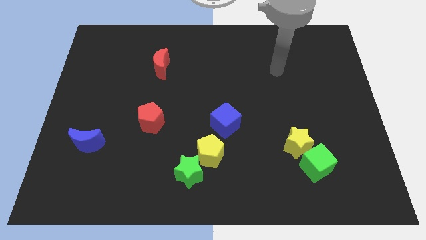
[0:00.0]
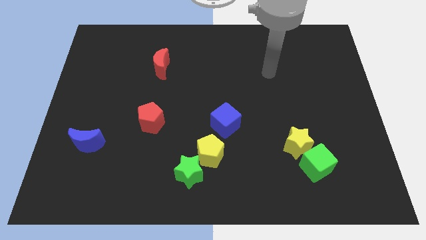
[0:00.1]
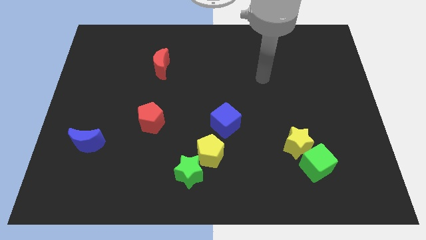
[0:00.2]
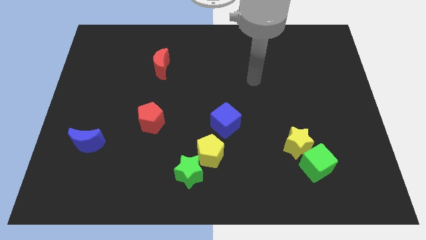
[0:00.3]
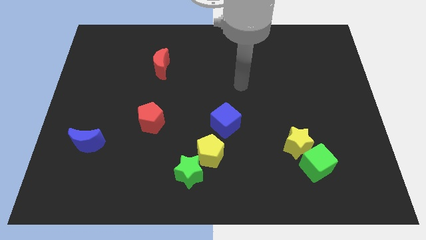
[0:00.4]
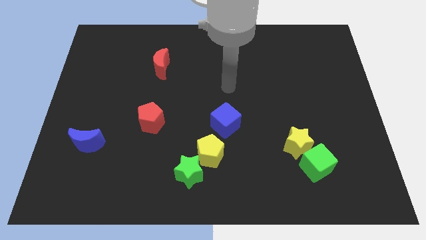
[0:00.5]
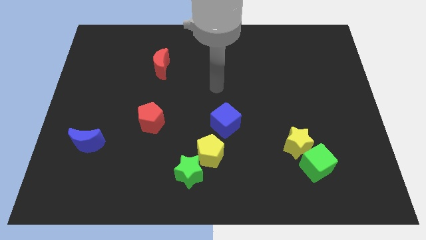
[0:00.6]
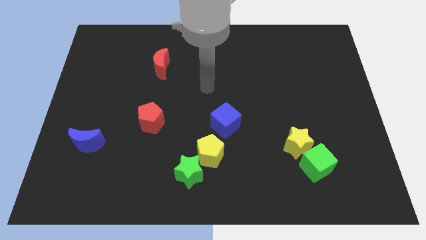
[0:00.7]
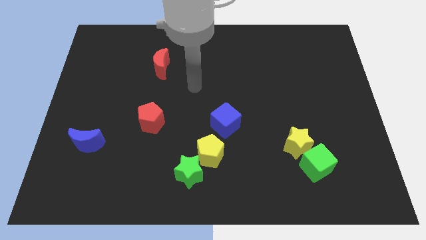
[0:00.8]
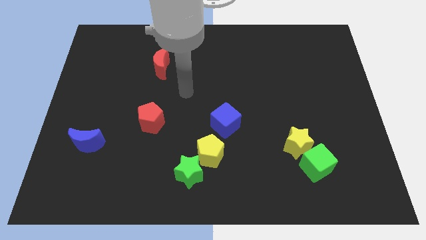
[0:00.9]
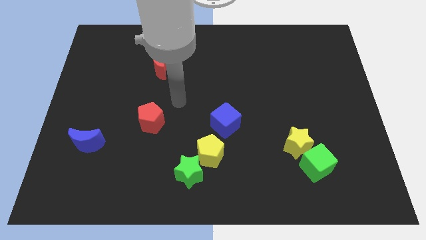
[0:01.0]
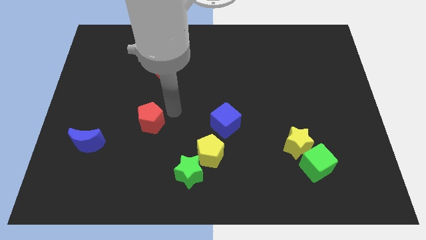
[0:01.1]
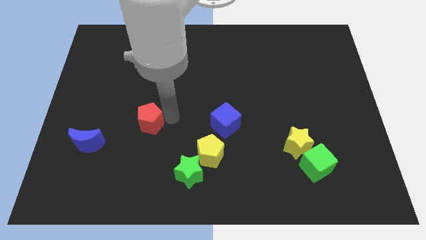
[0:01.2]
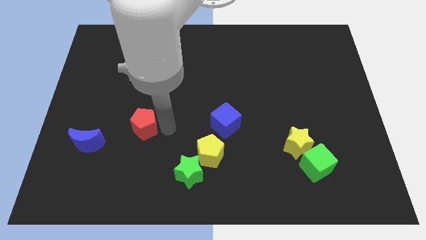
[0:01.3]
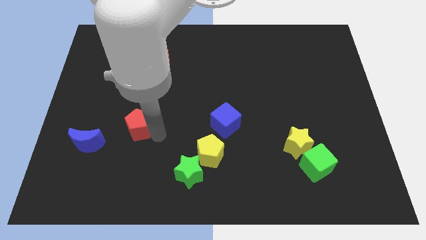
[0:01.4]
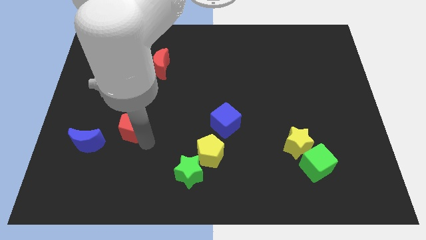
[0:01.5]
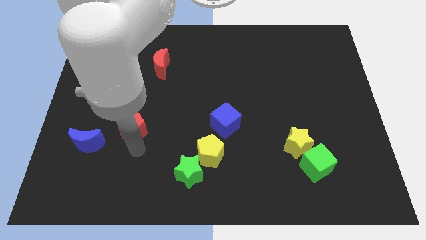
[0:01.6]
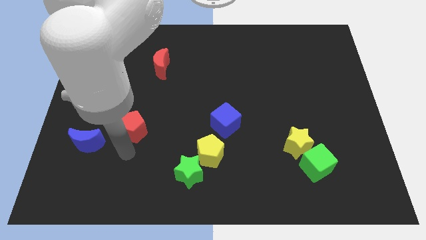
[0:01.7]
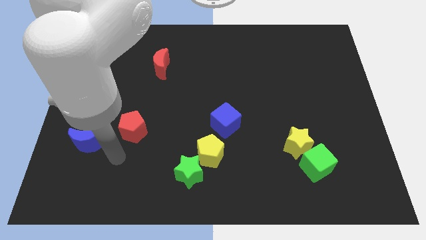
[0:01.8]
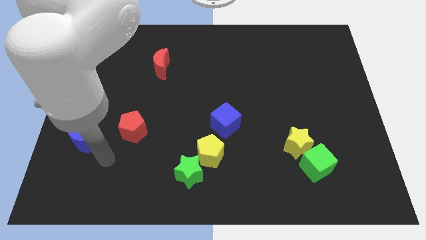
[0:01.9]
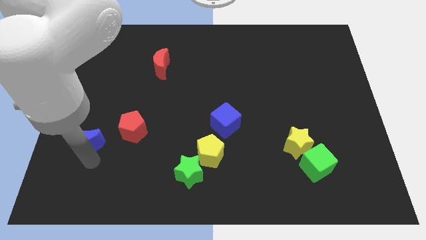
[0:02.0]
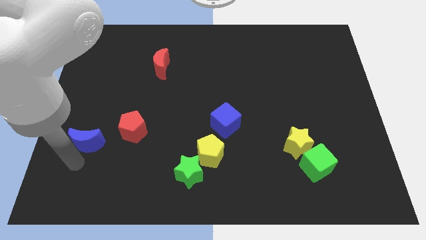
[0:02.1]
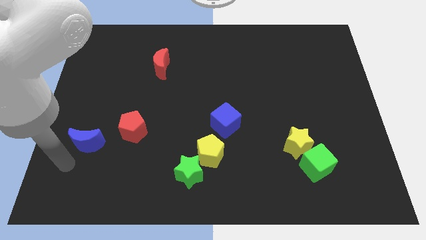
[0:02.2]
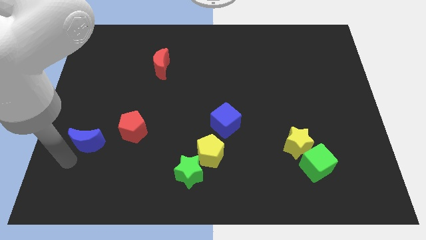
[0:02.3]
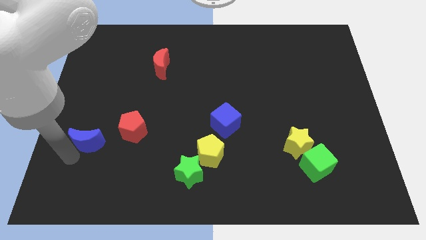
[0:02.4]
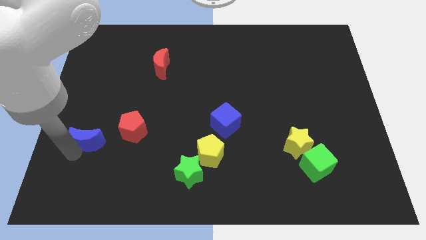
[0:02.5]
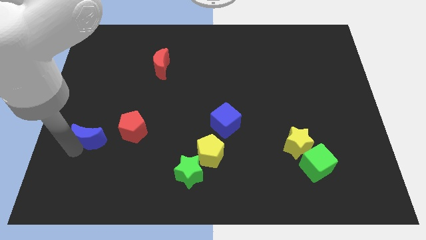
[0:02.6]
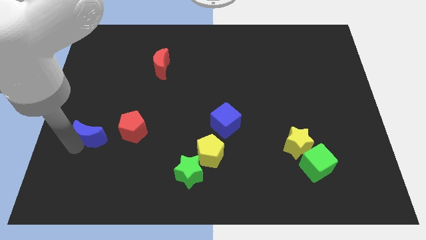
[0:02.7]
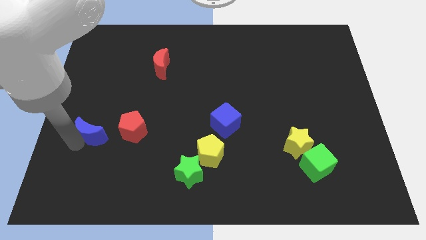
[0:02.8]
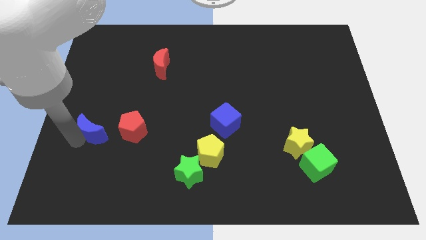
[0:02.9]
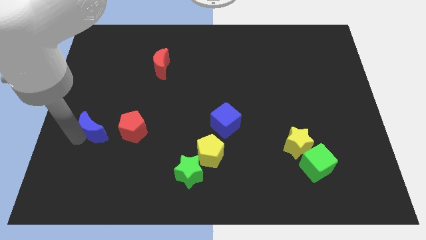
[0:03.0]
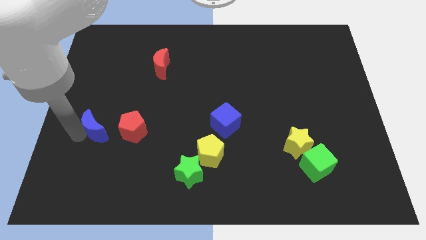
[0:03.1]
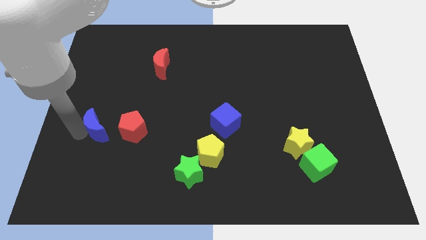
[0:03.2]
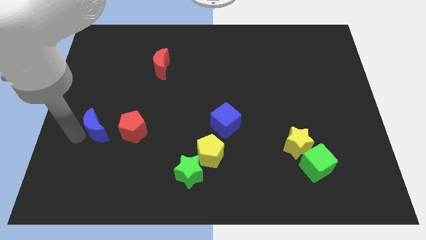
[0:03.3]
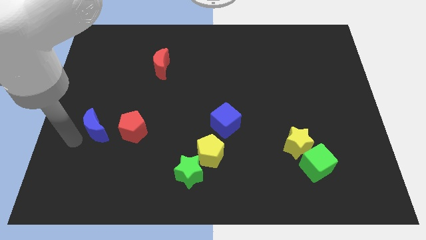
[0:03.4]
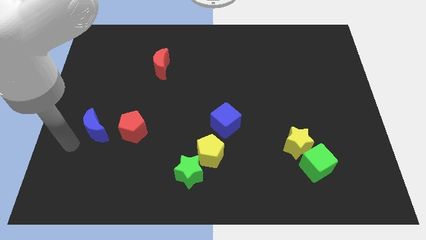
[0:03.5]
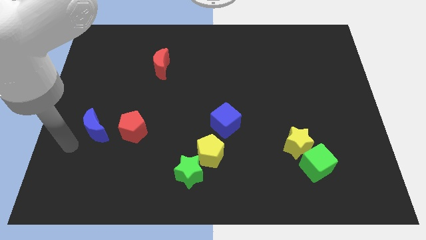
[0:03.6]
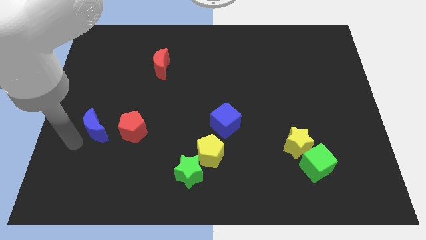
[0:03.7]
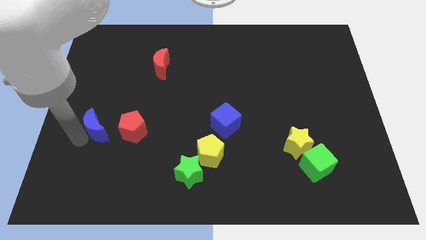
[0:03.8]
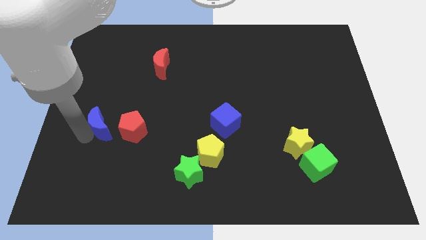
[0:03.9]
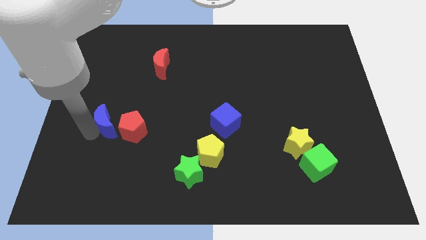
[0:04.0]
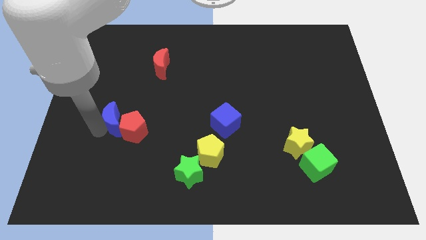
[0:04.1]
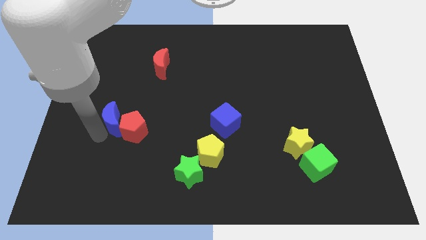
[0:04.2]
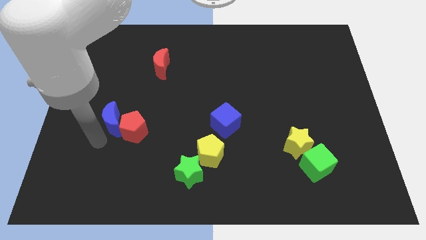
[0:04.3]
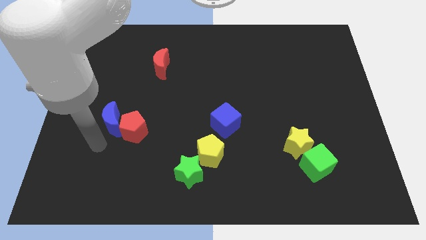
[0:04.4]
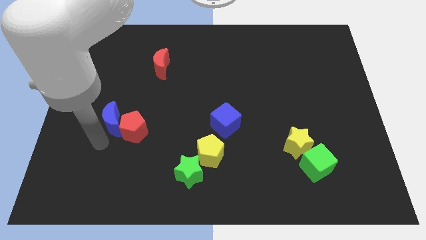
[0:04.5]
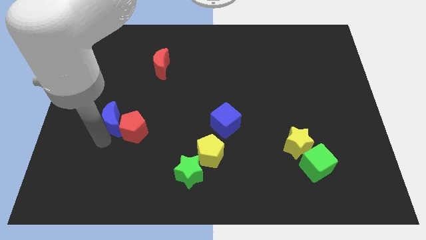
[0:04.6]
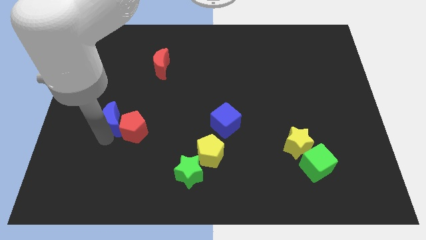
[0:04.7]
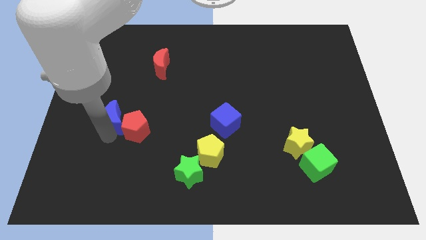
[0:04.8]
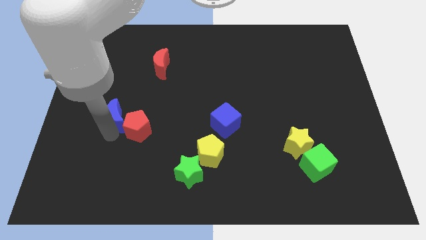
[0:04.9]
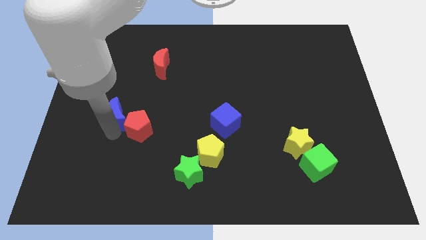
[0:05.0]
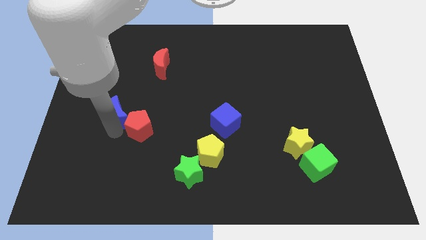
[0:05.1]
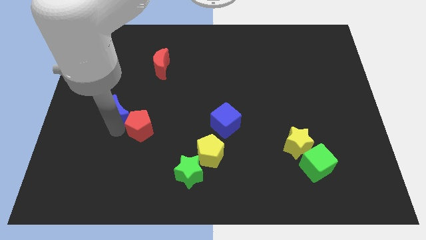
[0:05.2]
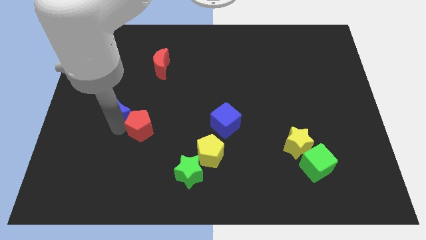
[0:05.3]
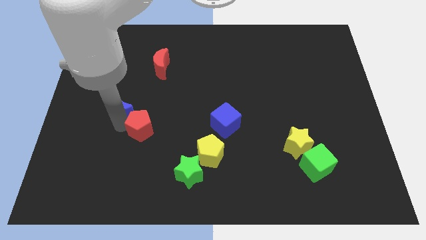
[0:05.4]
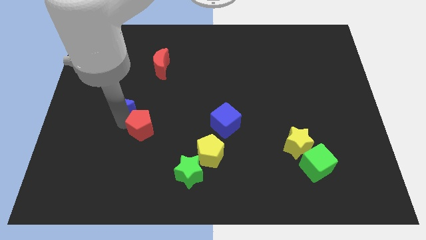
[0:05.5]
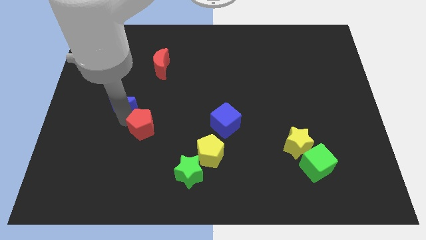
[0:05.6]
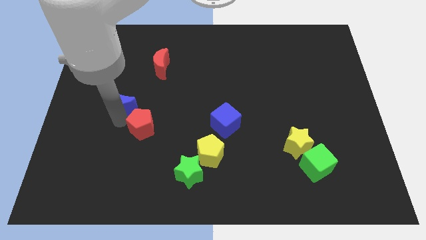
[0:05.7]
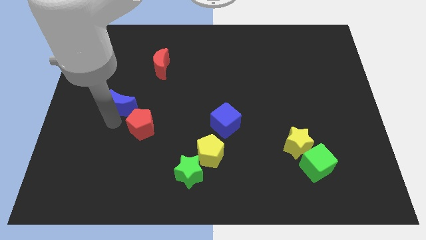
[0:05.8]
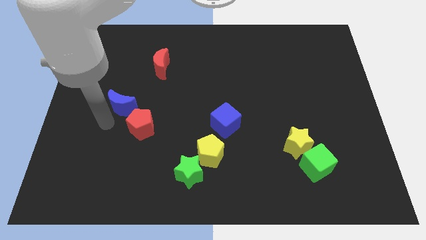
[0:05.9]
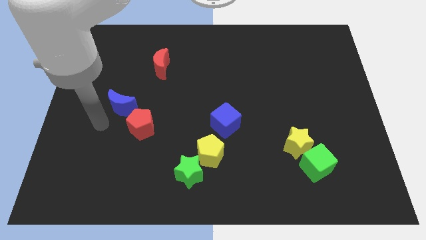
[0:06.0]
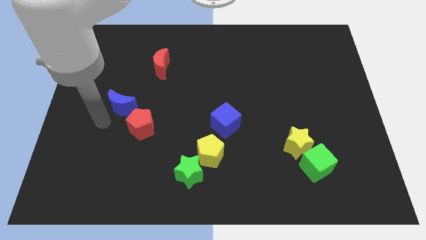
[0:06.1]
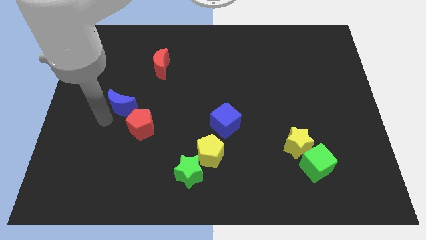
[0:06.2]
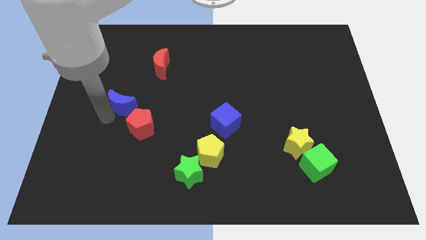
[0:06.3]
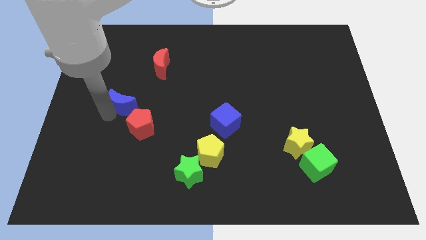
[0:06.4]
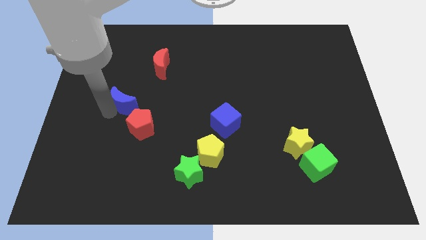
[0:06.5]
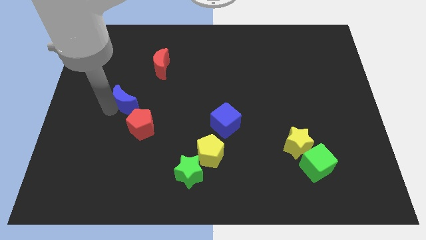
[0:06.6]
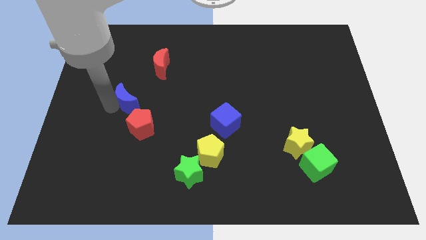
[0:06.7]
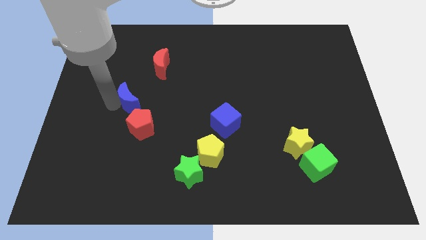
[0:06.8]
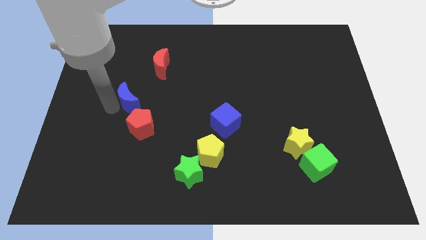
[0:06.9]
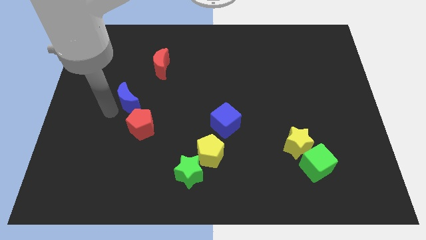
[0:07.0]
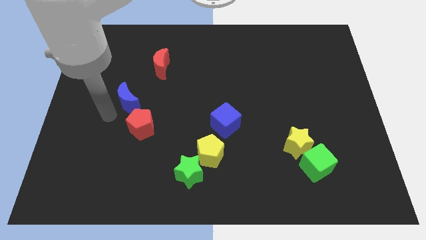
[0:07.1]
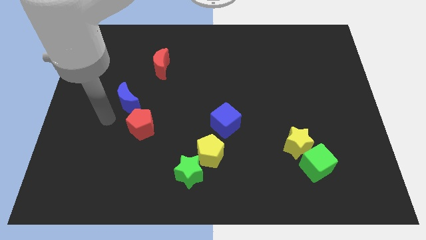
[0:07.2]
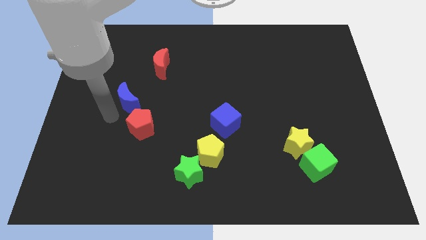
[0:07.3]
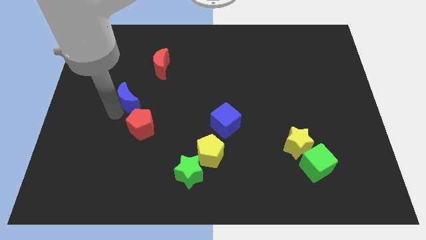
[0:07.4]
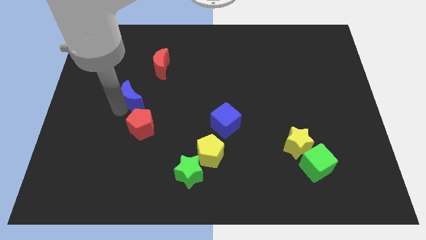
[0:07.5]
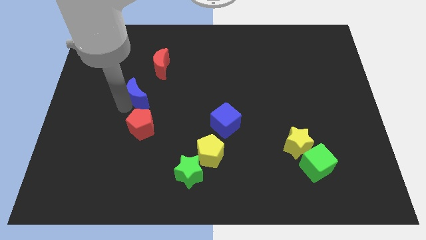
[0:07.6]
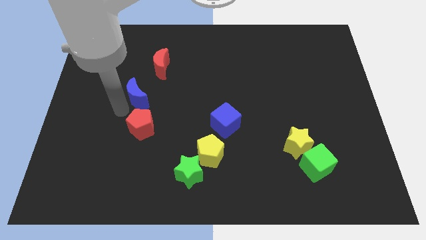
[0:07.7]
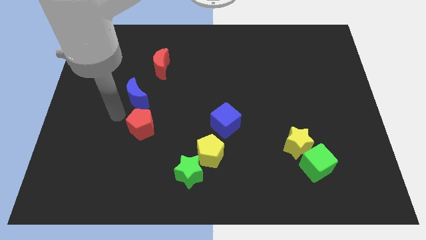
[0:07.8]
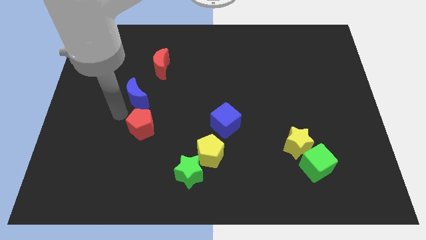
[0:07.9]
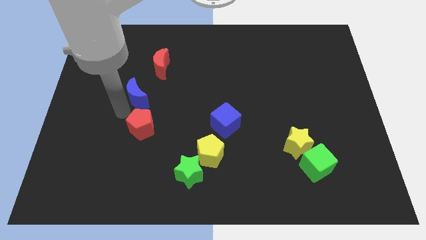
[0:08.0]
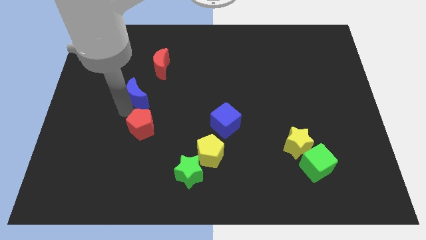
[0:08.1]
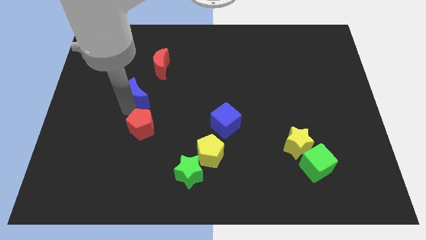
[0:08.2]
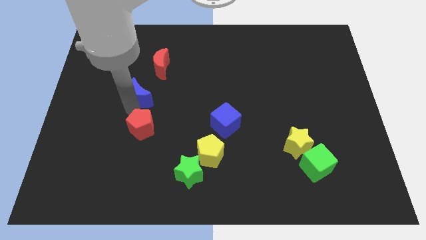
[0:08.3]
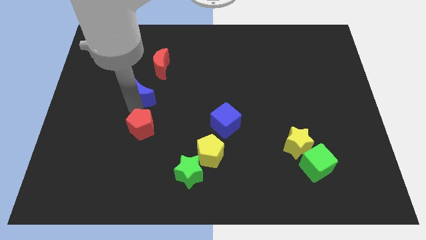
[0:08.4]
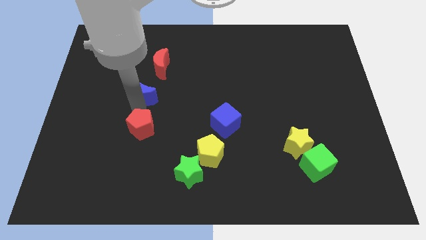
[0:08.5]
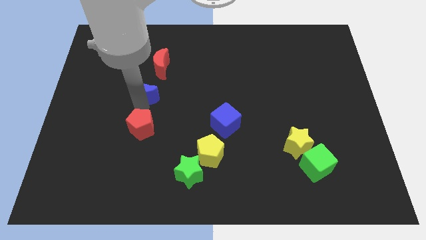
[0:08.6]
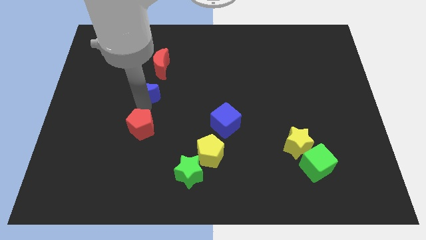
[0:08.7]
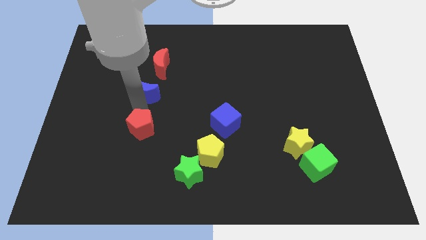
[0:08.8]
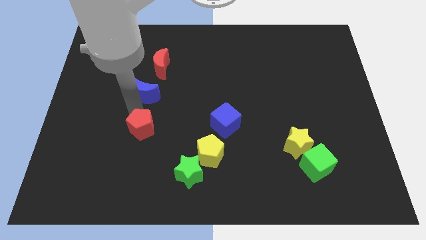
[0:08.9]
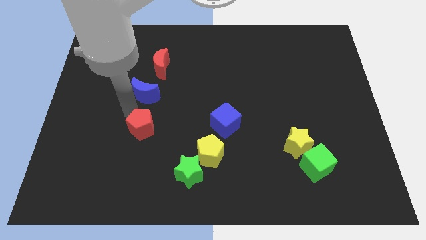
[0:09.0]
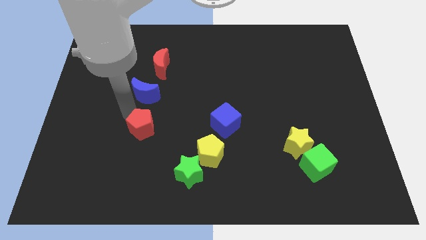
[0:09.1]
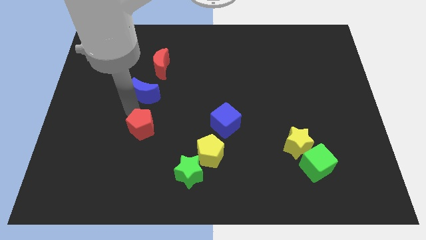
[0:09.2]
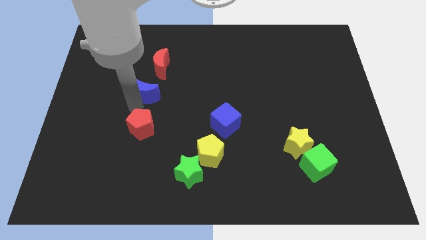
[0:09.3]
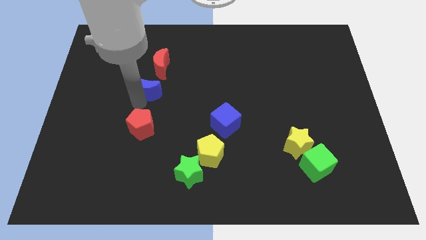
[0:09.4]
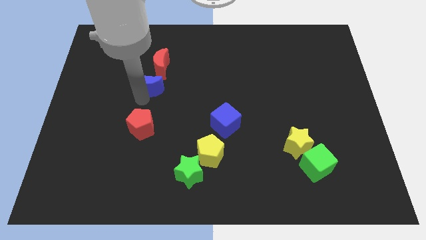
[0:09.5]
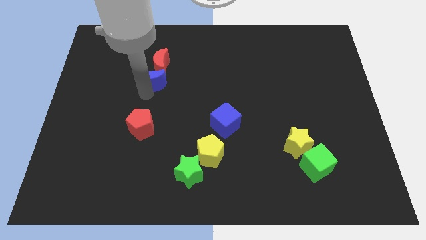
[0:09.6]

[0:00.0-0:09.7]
move the blue moon towards the red moon
